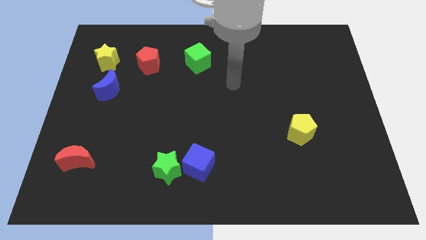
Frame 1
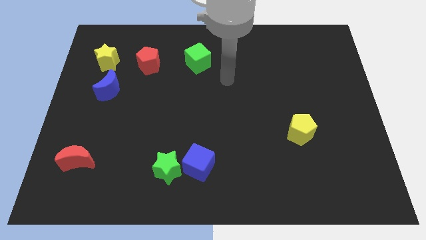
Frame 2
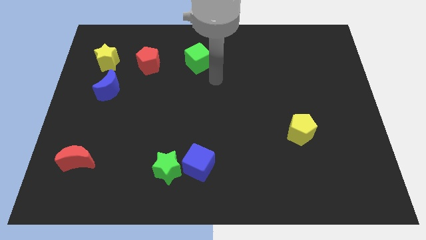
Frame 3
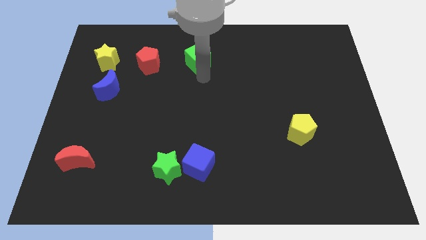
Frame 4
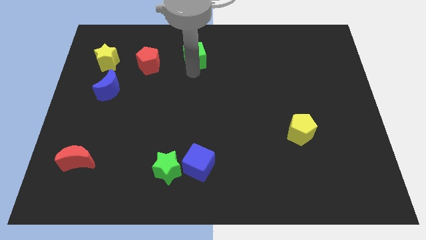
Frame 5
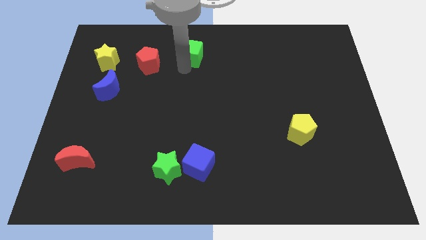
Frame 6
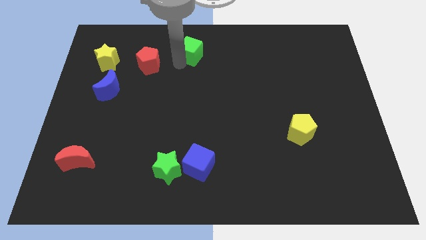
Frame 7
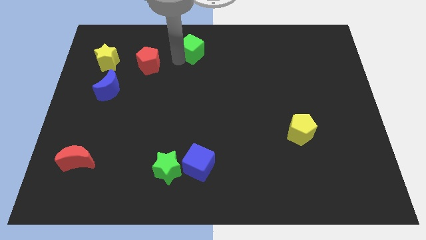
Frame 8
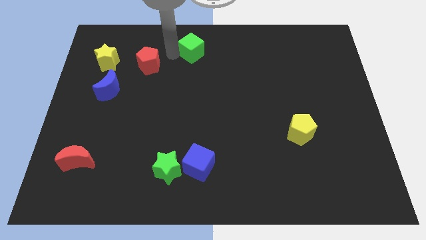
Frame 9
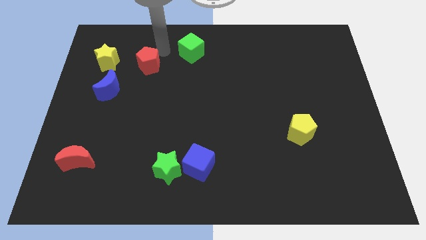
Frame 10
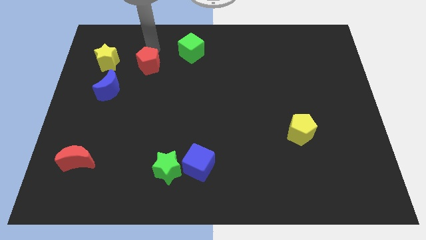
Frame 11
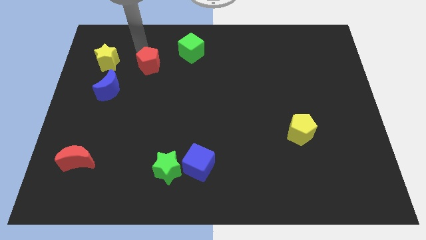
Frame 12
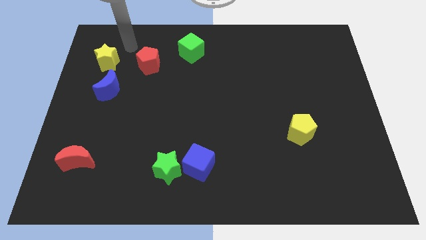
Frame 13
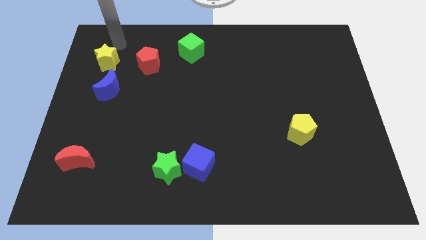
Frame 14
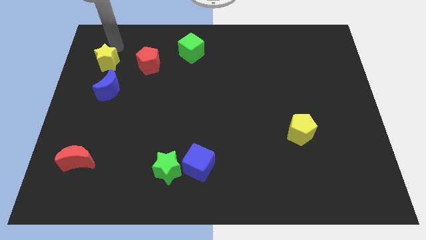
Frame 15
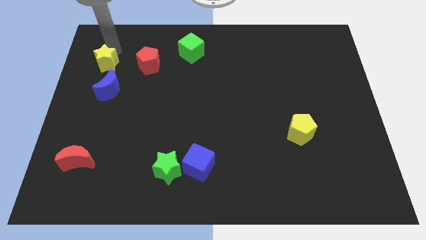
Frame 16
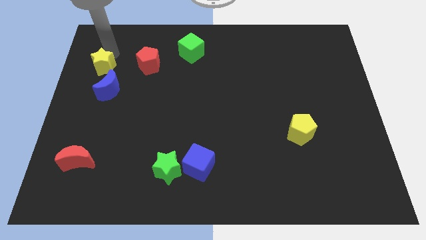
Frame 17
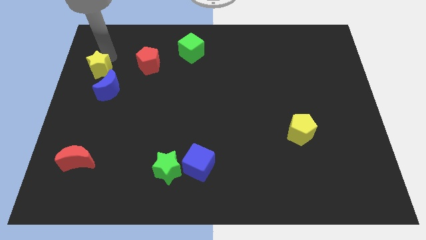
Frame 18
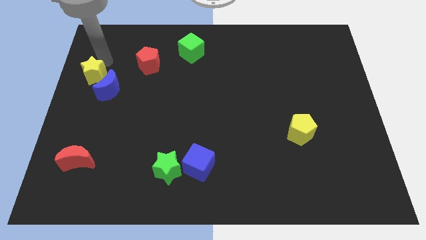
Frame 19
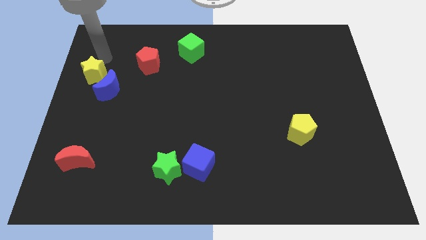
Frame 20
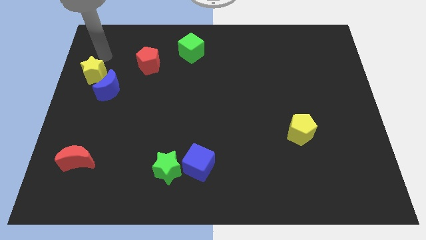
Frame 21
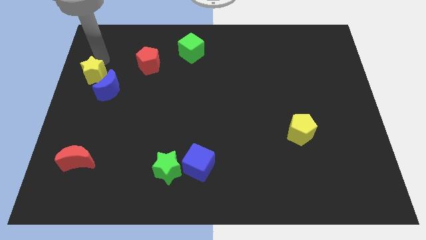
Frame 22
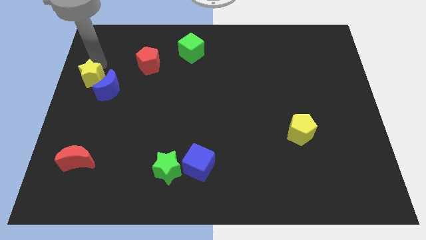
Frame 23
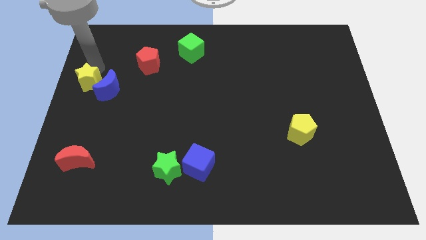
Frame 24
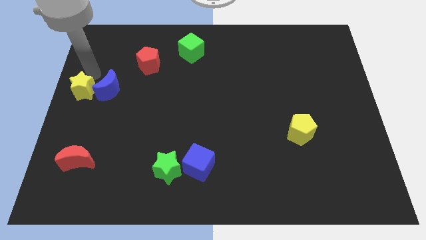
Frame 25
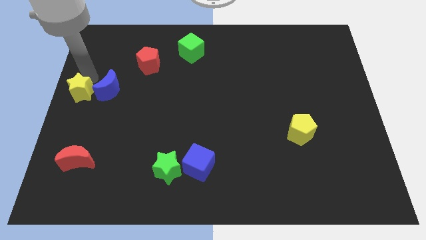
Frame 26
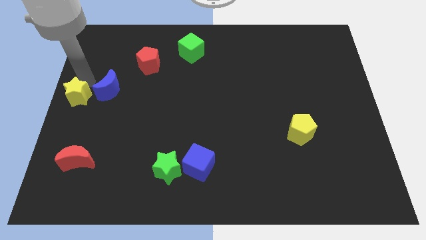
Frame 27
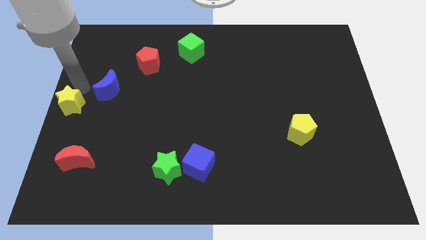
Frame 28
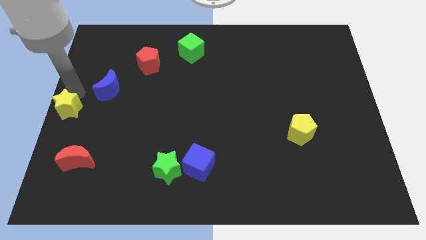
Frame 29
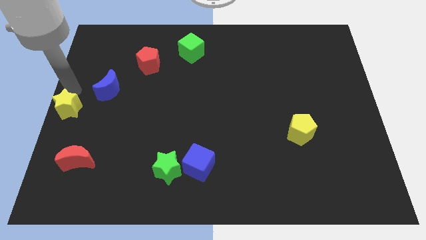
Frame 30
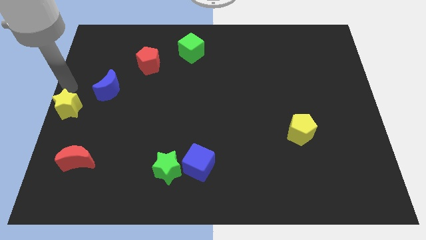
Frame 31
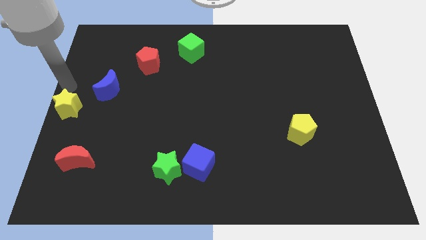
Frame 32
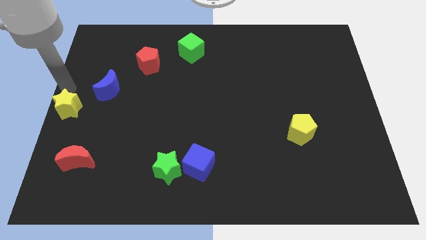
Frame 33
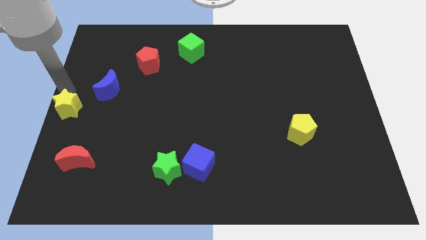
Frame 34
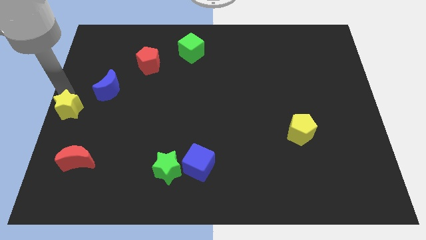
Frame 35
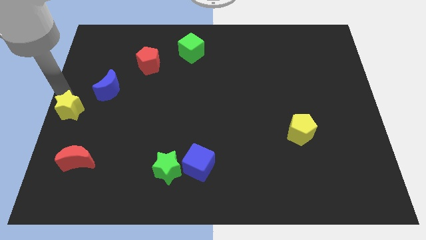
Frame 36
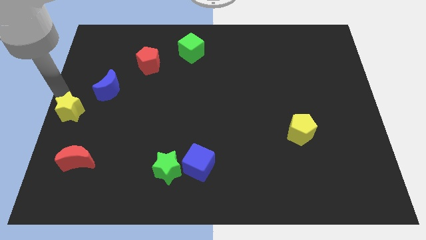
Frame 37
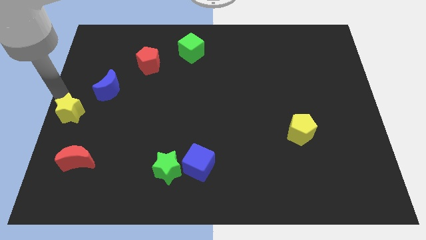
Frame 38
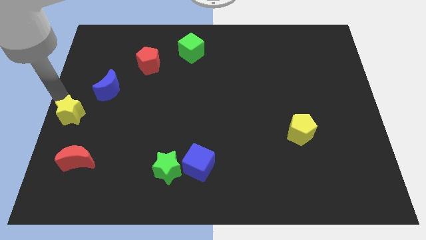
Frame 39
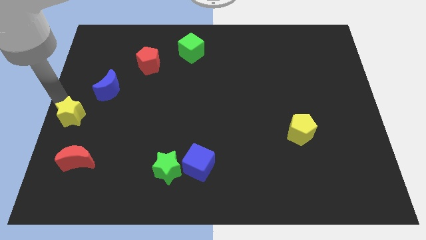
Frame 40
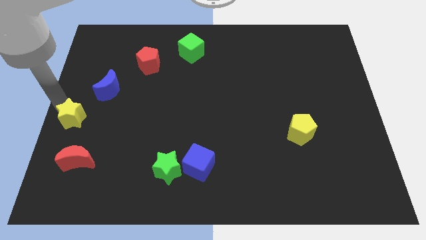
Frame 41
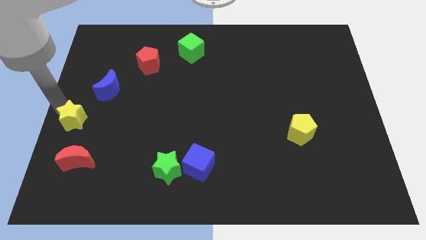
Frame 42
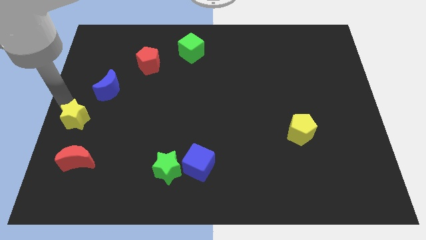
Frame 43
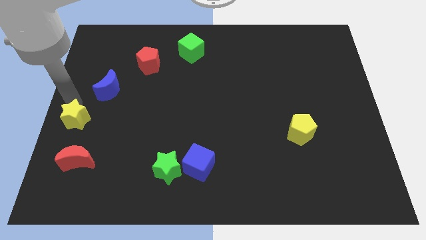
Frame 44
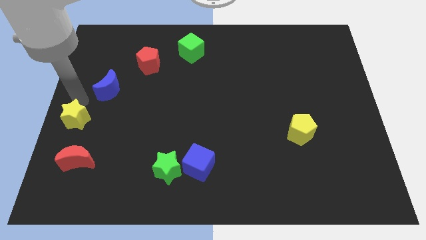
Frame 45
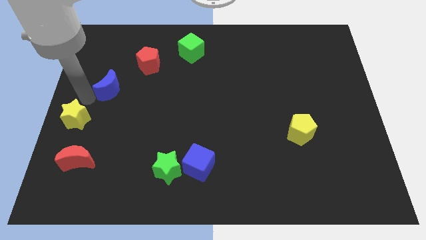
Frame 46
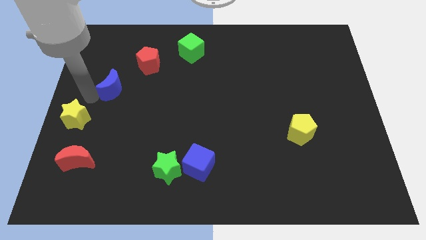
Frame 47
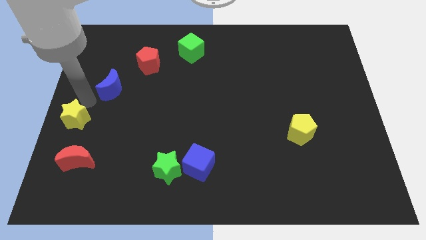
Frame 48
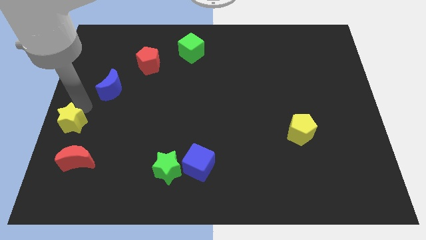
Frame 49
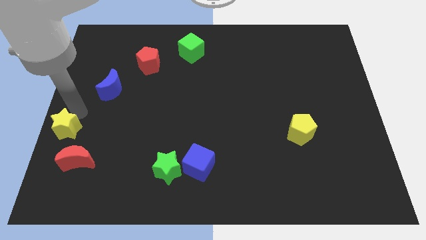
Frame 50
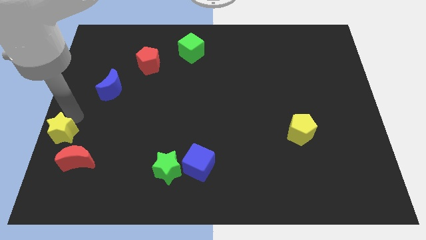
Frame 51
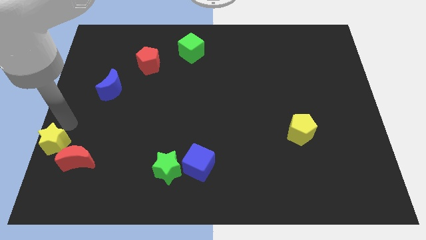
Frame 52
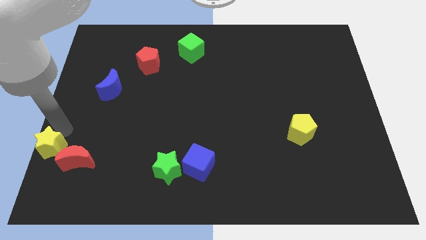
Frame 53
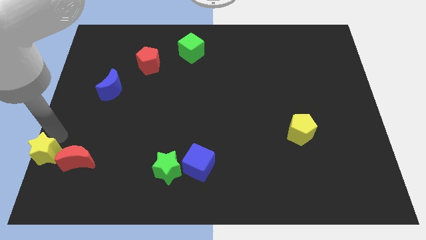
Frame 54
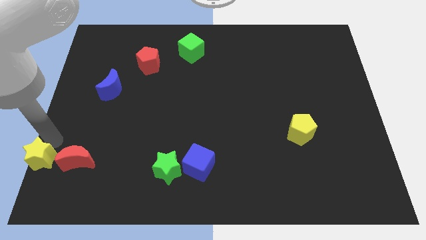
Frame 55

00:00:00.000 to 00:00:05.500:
move the yellow star to the bottom left corner
